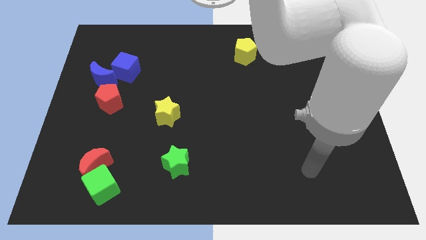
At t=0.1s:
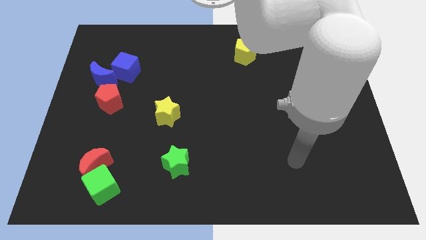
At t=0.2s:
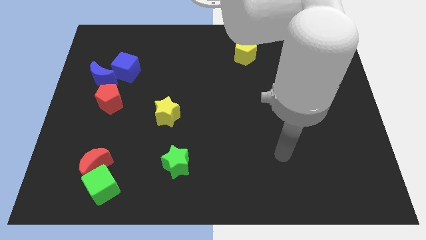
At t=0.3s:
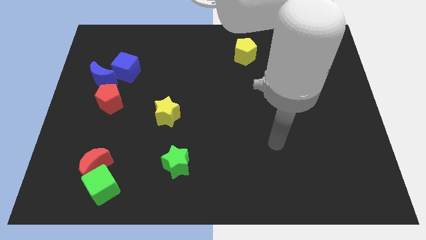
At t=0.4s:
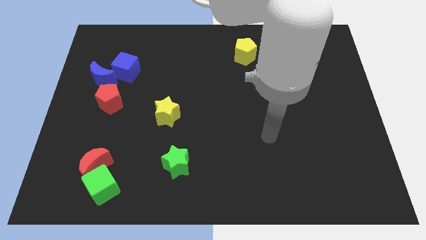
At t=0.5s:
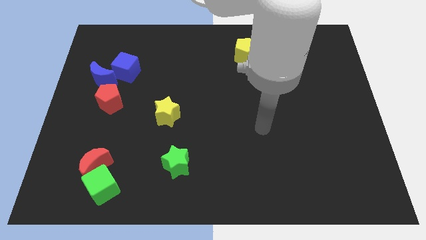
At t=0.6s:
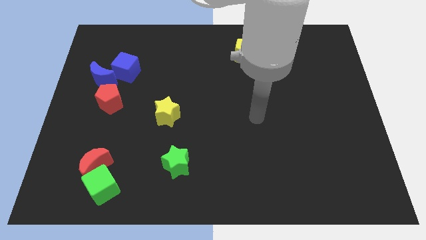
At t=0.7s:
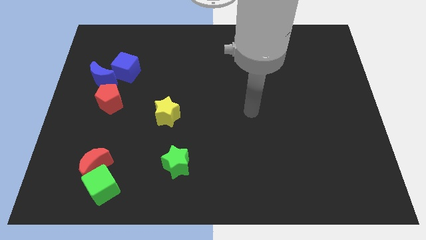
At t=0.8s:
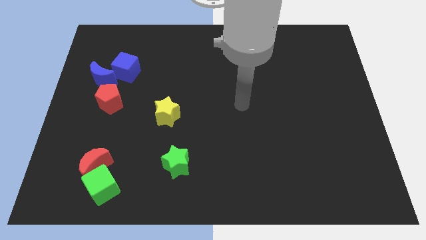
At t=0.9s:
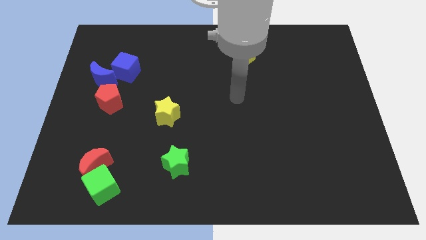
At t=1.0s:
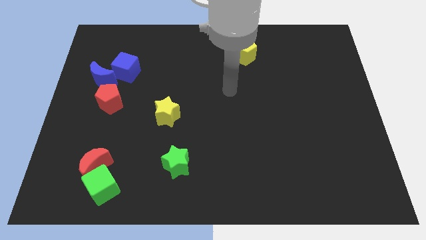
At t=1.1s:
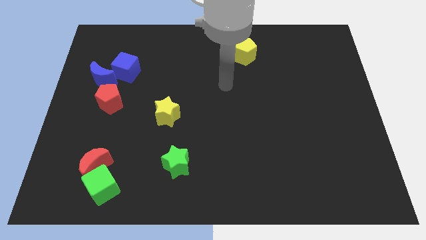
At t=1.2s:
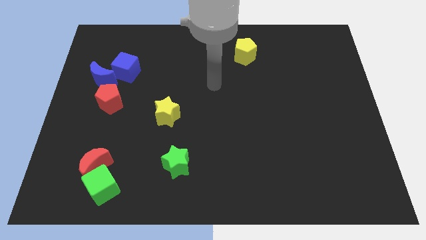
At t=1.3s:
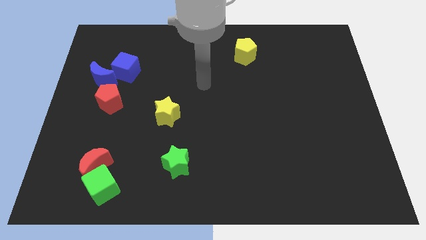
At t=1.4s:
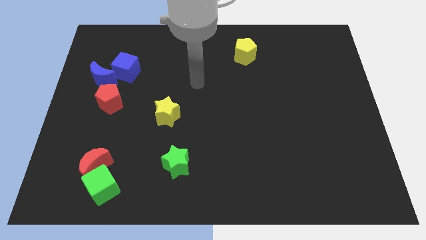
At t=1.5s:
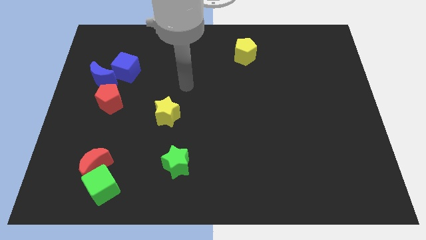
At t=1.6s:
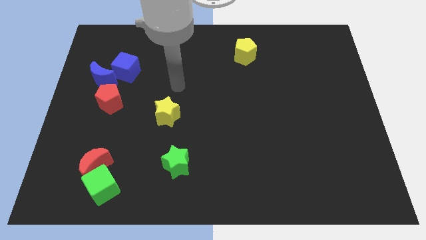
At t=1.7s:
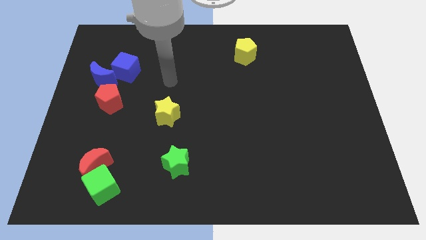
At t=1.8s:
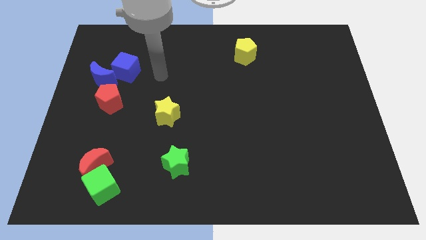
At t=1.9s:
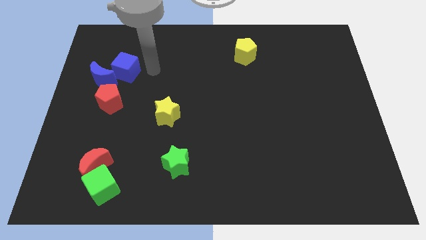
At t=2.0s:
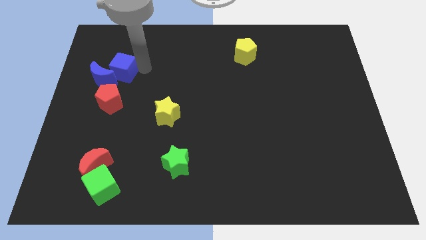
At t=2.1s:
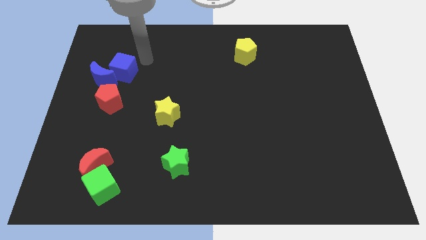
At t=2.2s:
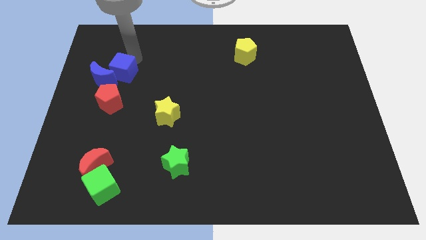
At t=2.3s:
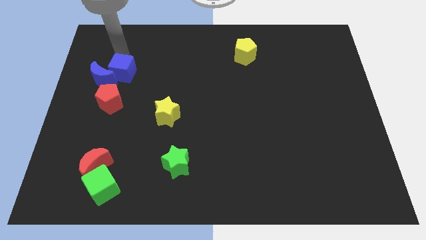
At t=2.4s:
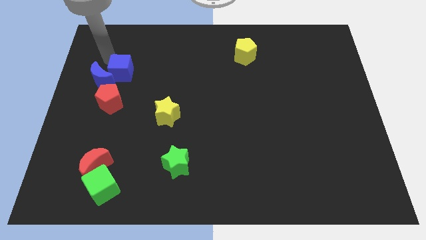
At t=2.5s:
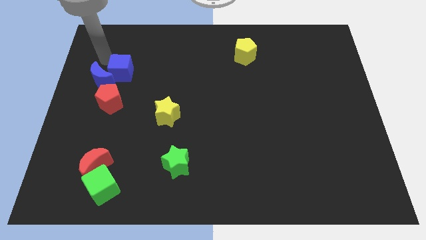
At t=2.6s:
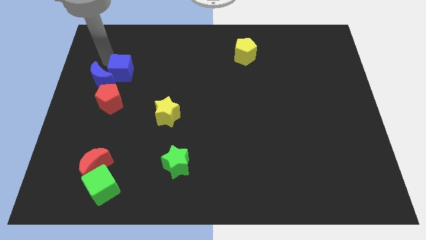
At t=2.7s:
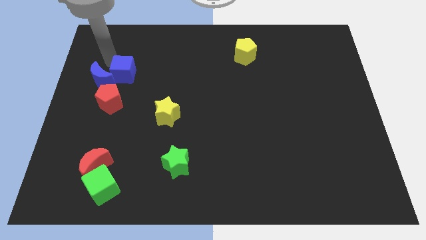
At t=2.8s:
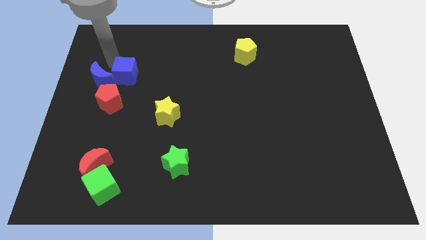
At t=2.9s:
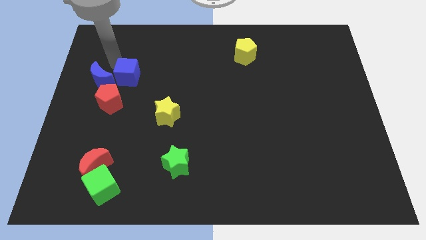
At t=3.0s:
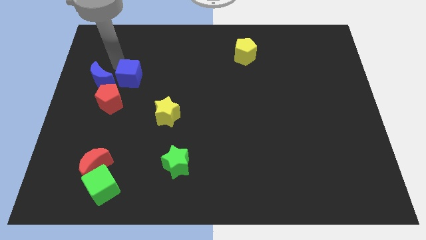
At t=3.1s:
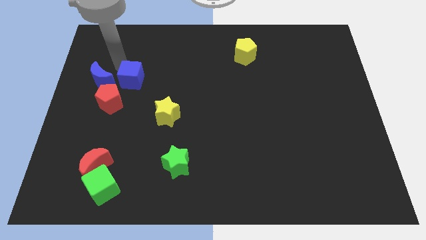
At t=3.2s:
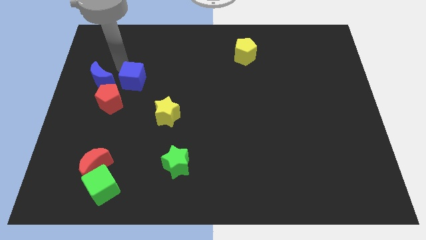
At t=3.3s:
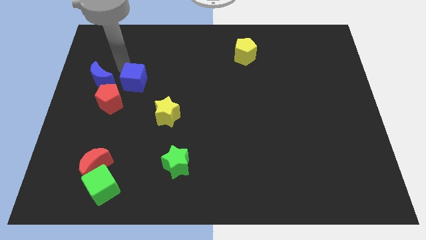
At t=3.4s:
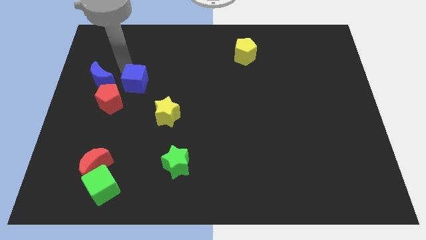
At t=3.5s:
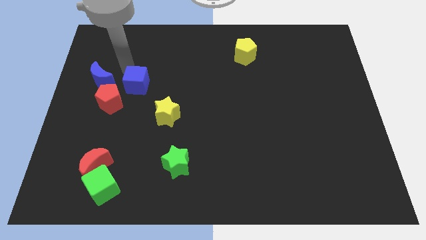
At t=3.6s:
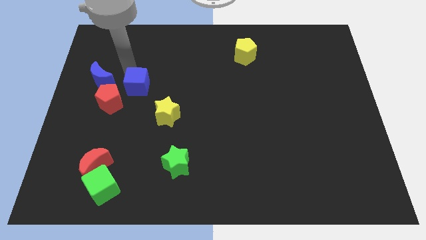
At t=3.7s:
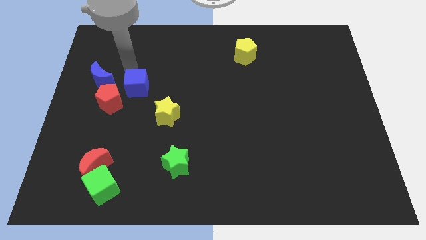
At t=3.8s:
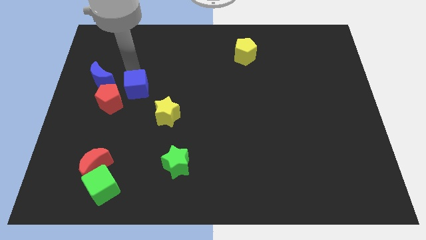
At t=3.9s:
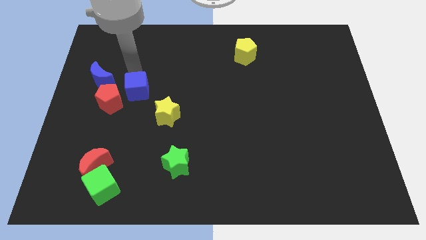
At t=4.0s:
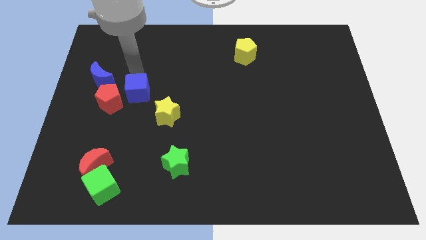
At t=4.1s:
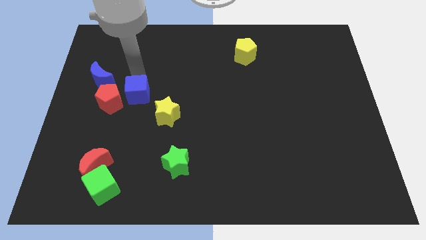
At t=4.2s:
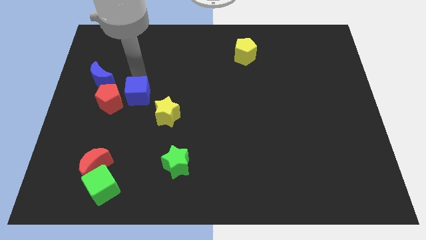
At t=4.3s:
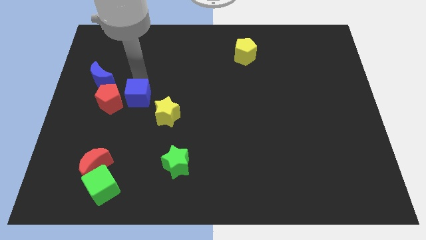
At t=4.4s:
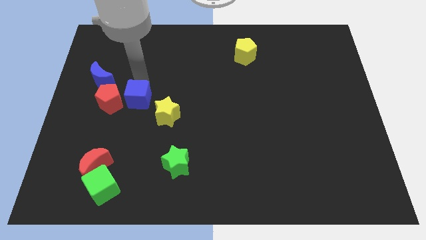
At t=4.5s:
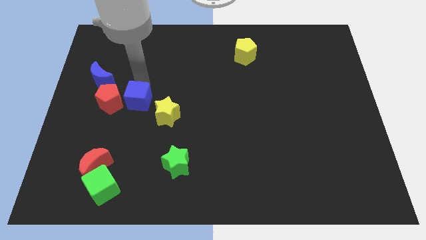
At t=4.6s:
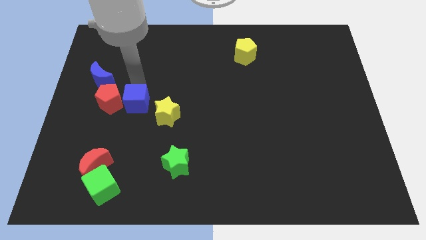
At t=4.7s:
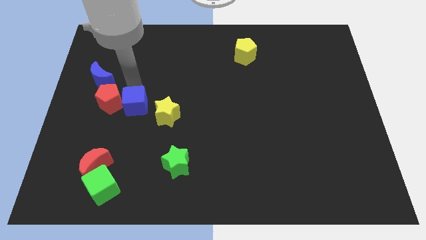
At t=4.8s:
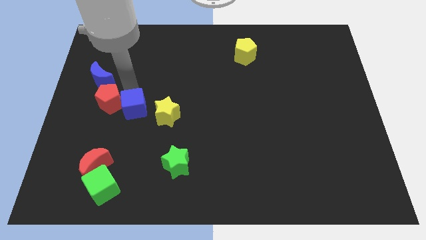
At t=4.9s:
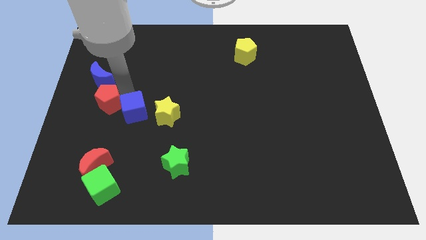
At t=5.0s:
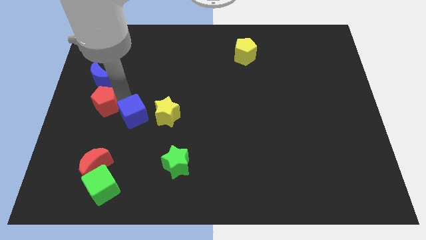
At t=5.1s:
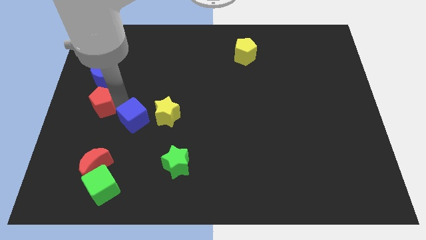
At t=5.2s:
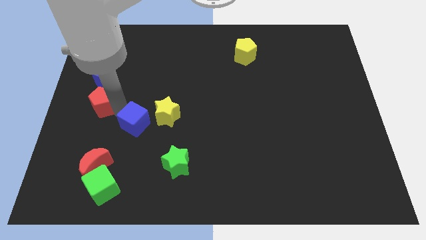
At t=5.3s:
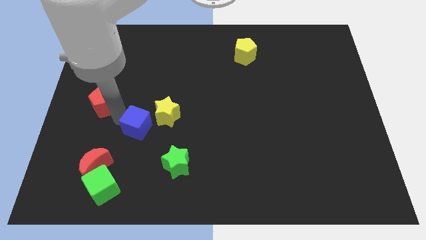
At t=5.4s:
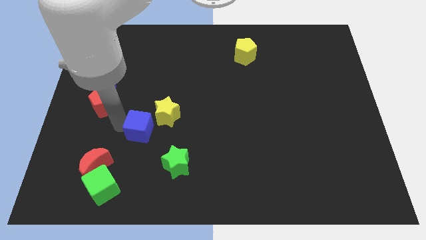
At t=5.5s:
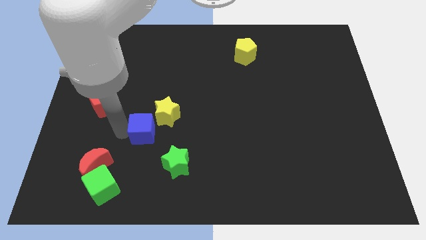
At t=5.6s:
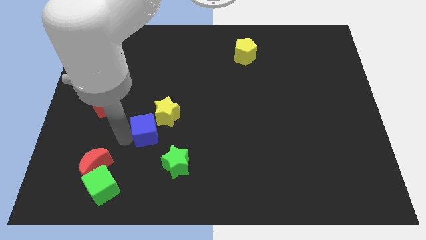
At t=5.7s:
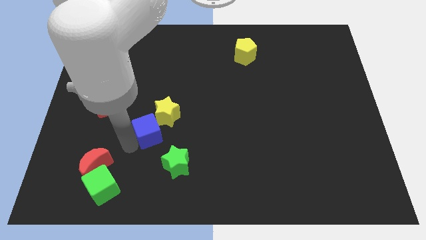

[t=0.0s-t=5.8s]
put the blue cube close to the yellow star
